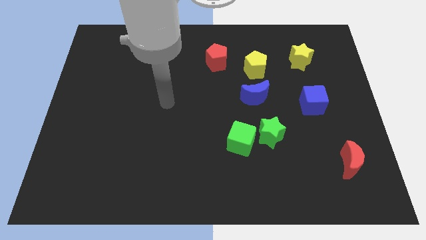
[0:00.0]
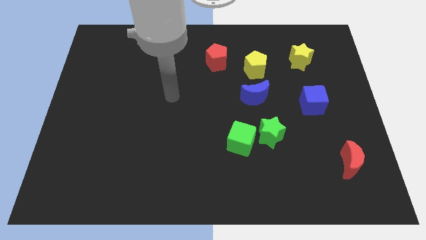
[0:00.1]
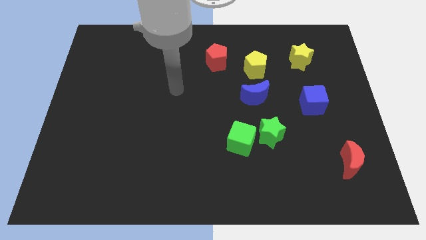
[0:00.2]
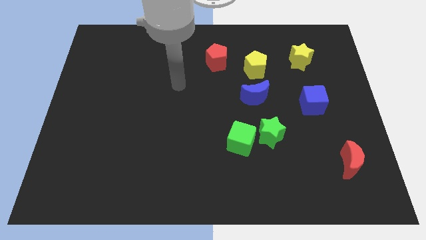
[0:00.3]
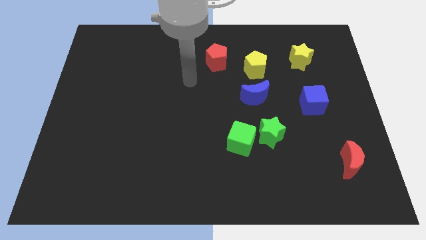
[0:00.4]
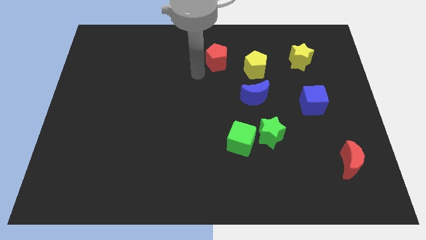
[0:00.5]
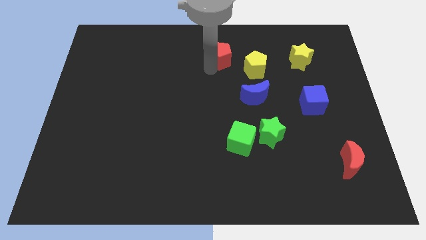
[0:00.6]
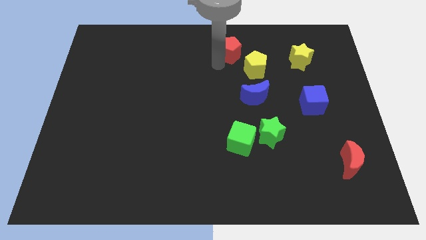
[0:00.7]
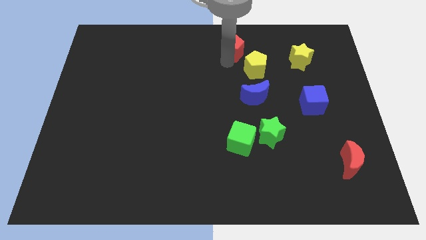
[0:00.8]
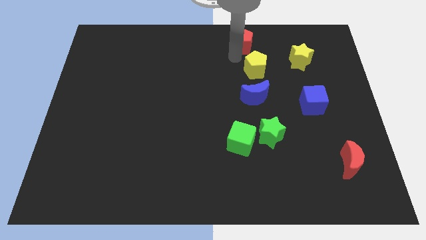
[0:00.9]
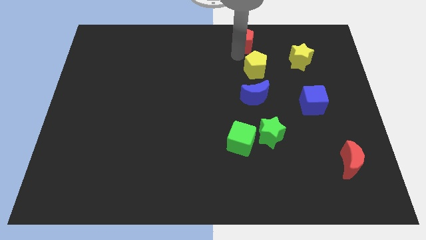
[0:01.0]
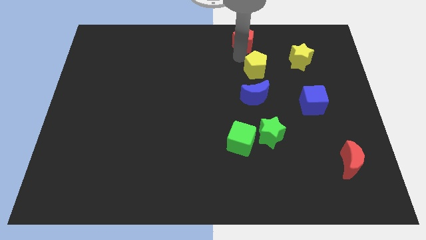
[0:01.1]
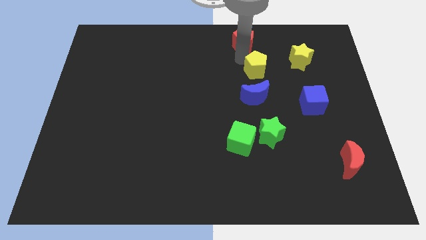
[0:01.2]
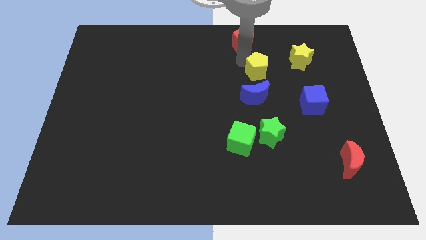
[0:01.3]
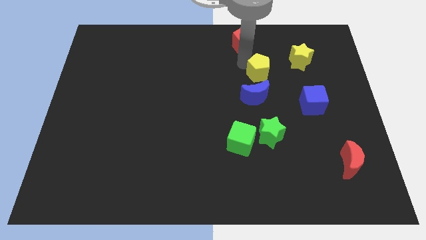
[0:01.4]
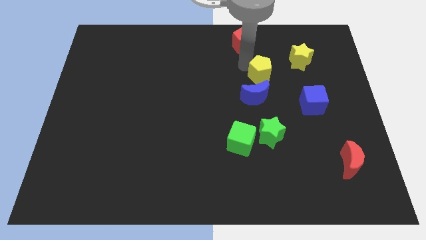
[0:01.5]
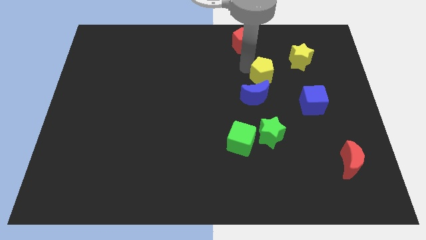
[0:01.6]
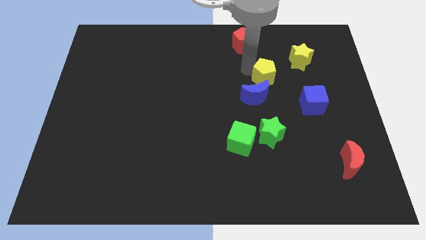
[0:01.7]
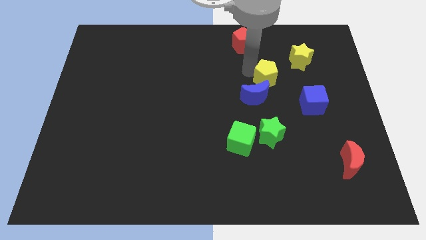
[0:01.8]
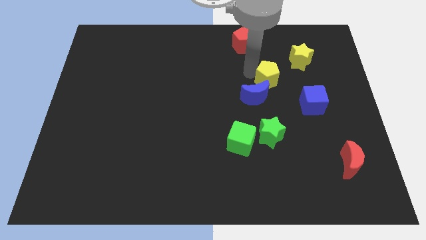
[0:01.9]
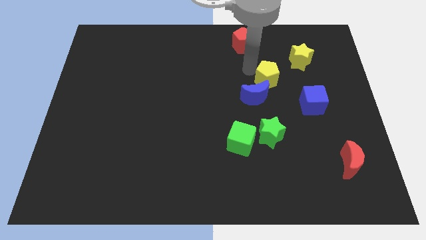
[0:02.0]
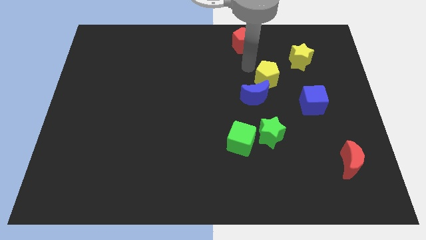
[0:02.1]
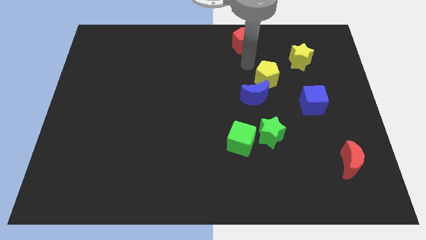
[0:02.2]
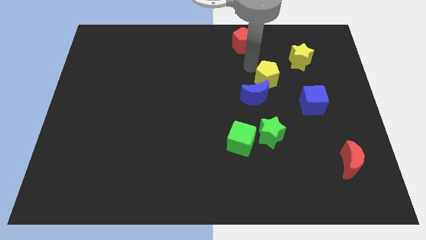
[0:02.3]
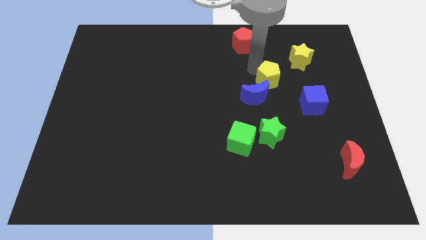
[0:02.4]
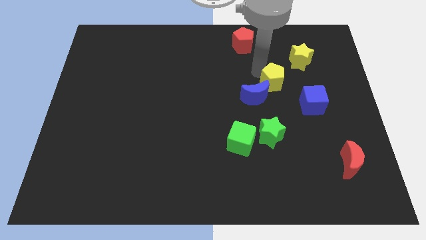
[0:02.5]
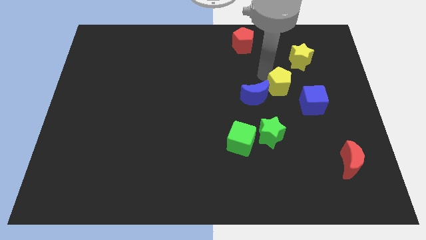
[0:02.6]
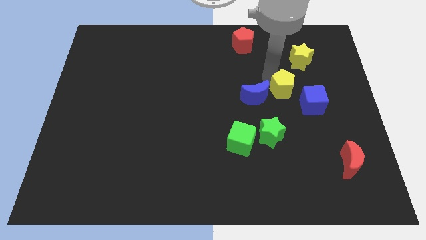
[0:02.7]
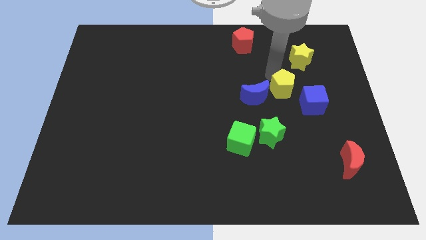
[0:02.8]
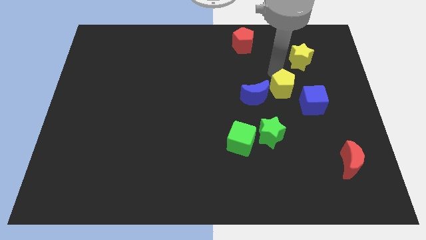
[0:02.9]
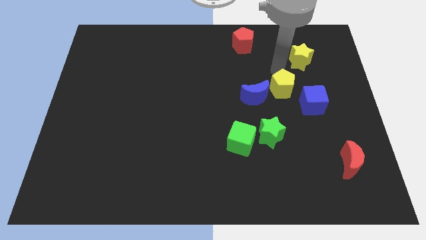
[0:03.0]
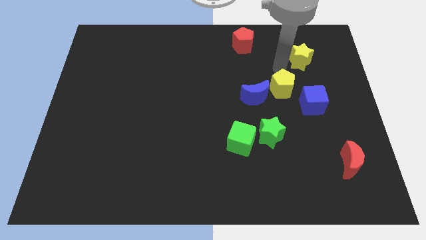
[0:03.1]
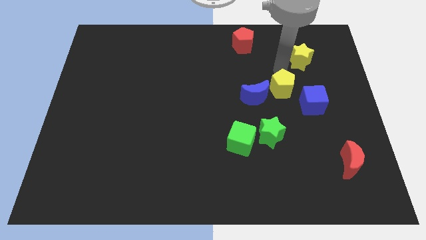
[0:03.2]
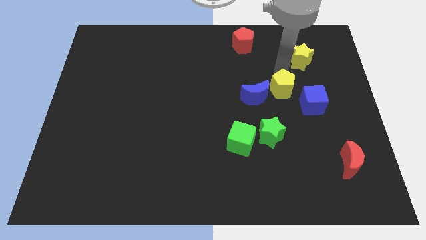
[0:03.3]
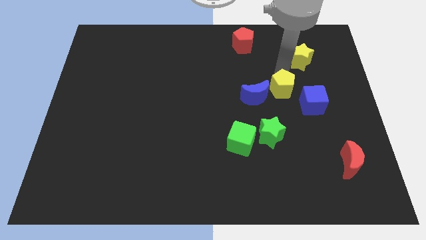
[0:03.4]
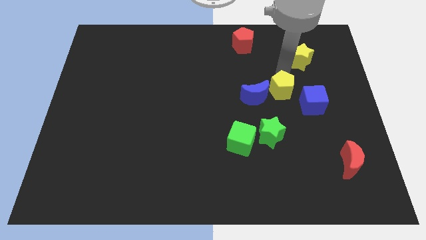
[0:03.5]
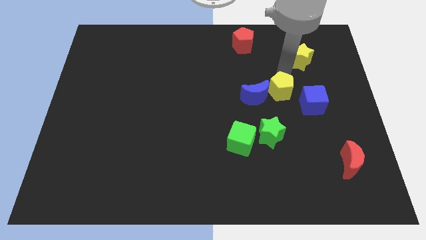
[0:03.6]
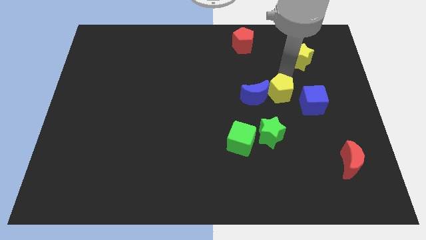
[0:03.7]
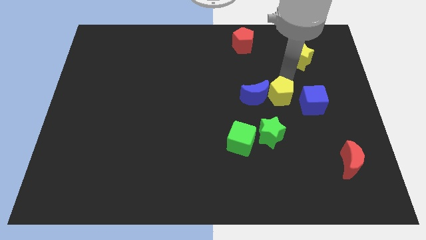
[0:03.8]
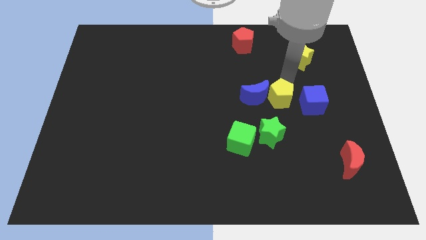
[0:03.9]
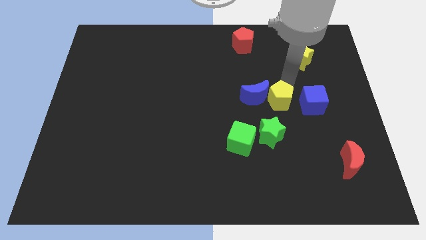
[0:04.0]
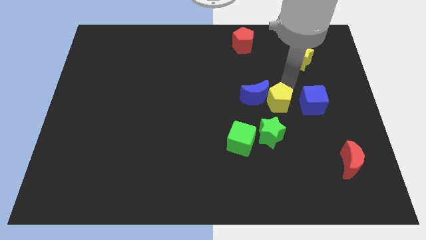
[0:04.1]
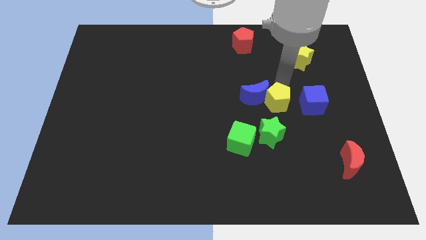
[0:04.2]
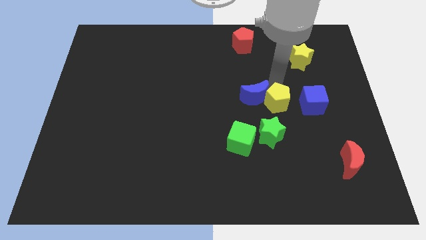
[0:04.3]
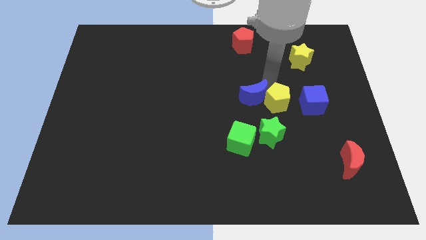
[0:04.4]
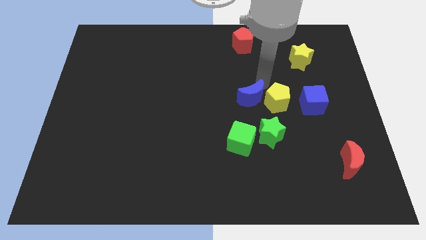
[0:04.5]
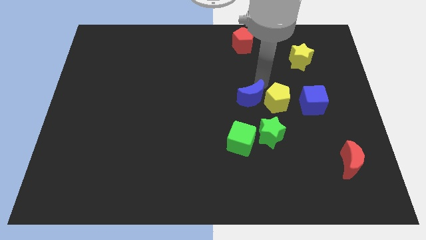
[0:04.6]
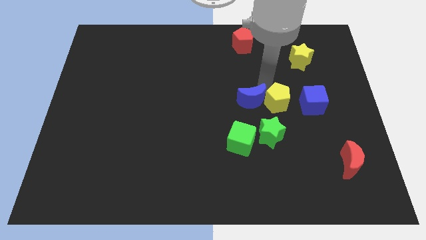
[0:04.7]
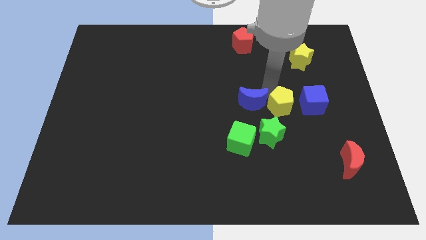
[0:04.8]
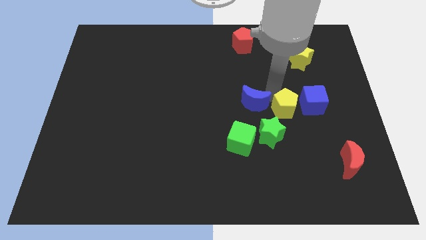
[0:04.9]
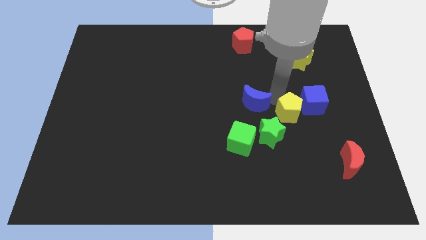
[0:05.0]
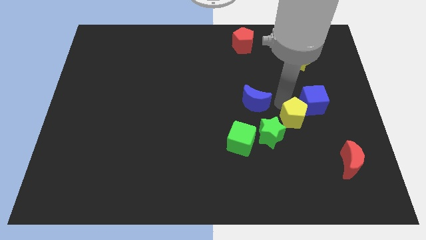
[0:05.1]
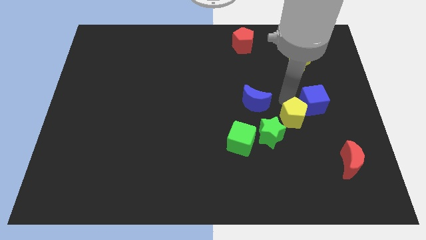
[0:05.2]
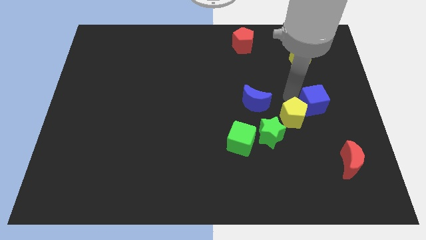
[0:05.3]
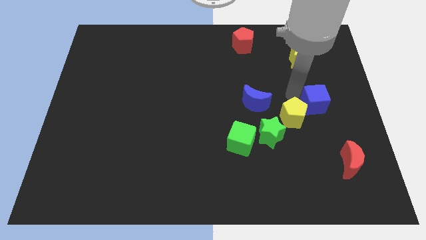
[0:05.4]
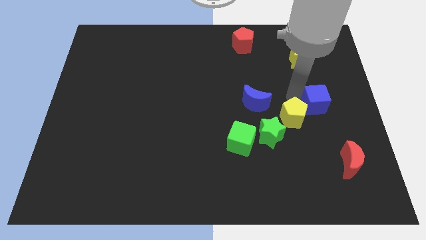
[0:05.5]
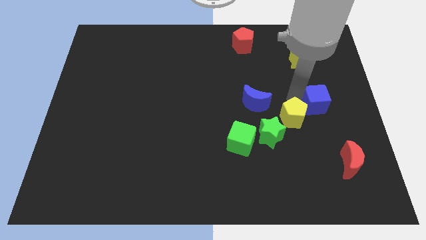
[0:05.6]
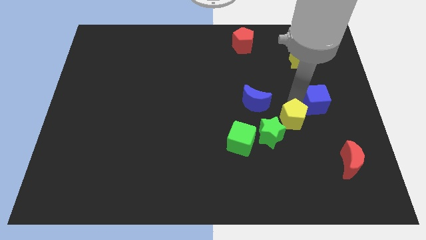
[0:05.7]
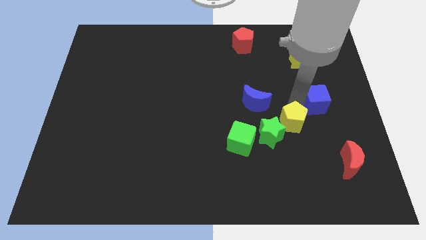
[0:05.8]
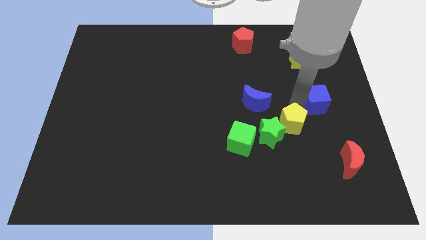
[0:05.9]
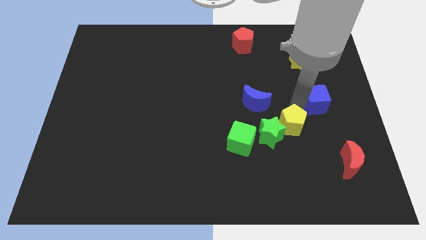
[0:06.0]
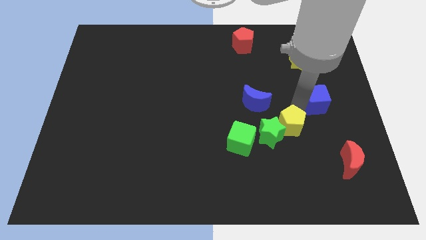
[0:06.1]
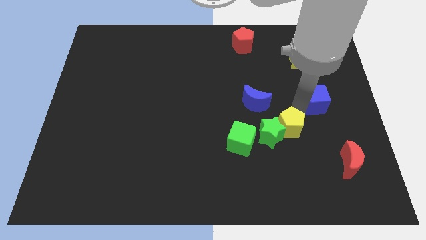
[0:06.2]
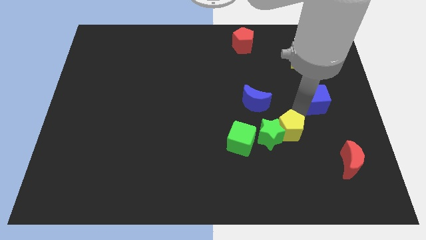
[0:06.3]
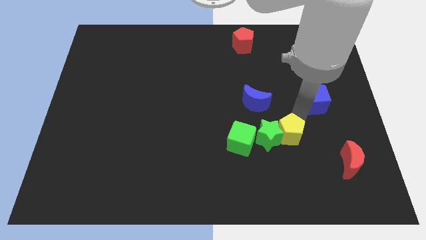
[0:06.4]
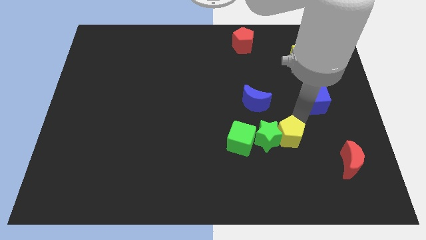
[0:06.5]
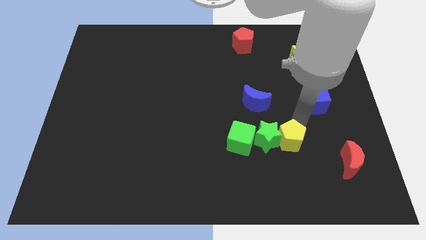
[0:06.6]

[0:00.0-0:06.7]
move the yellow pentagon downwards

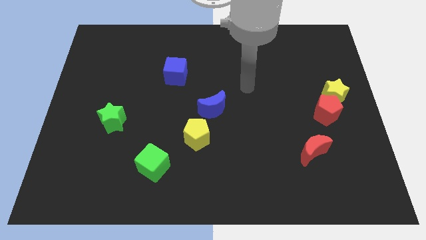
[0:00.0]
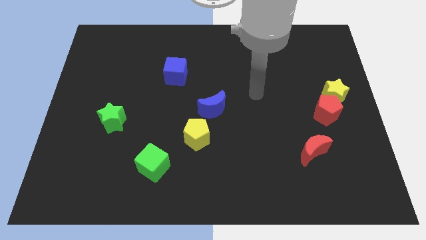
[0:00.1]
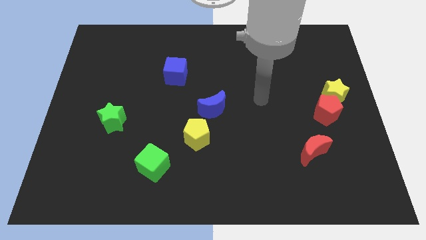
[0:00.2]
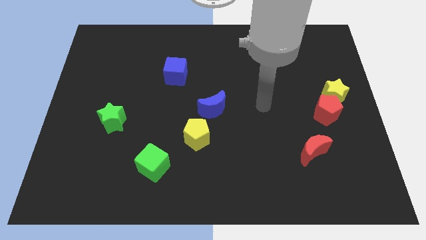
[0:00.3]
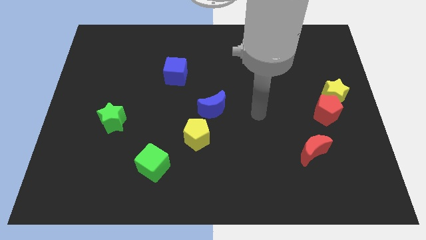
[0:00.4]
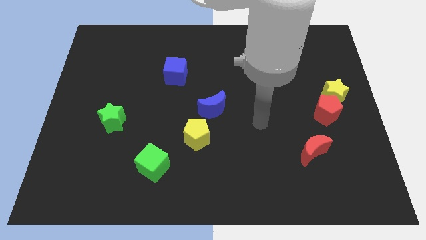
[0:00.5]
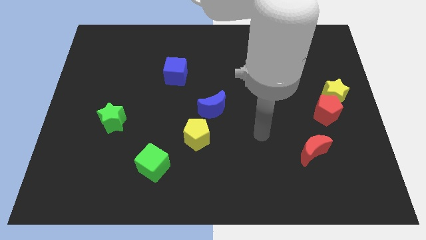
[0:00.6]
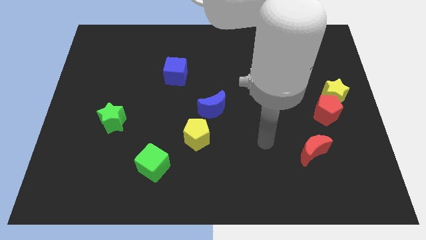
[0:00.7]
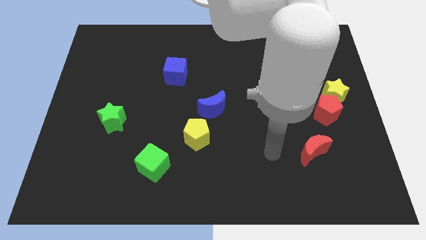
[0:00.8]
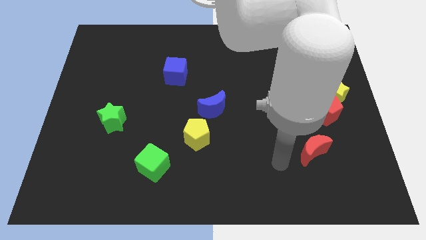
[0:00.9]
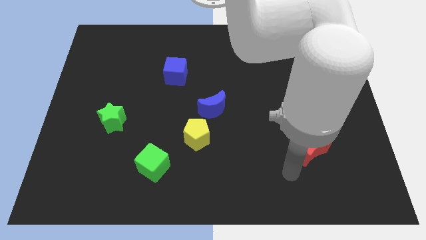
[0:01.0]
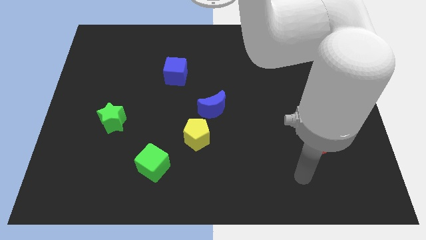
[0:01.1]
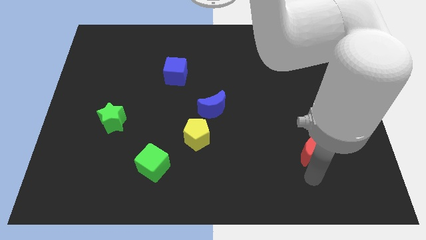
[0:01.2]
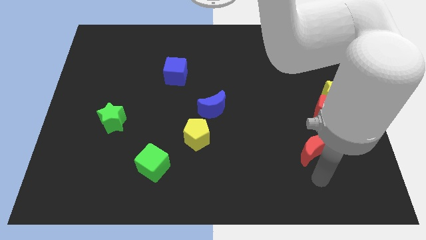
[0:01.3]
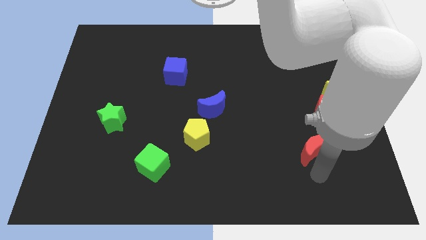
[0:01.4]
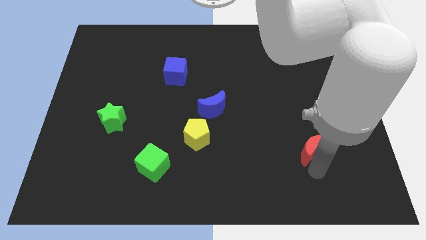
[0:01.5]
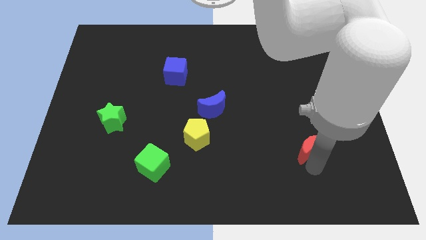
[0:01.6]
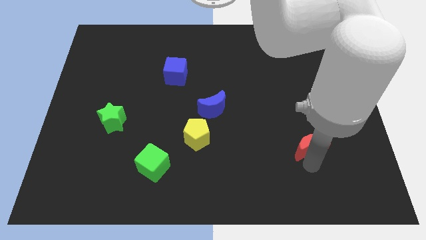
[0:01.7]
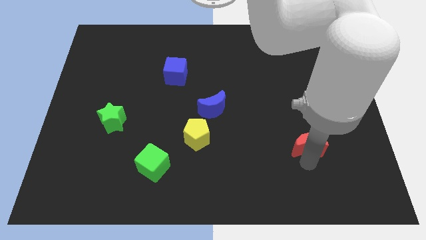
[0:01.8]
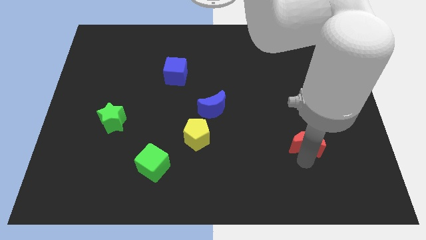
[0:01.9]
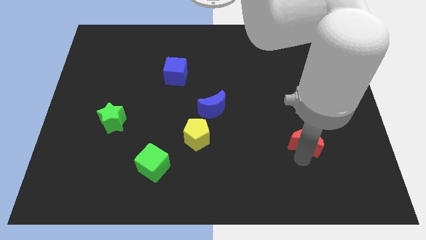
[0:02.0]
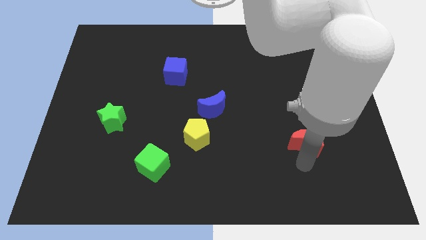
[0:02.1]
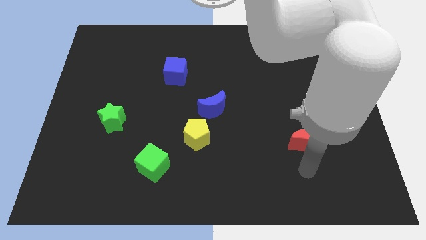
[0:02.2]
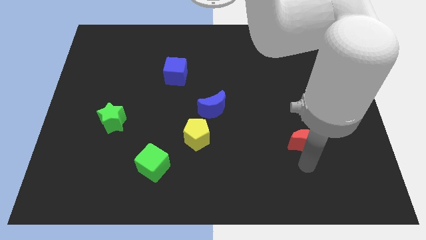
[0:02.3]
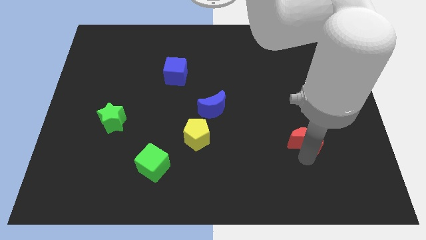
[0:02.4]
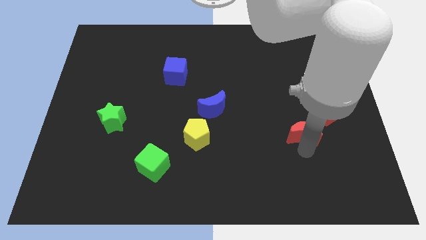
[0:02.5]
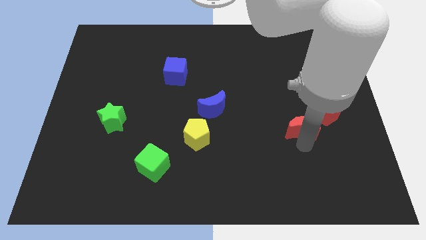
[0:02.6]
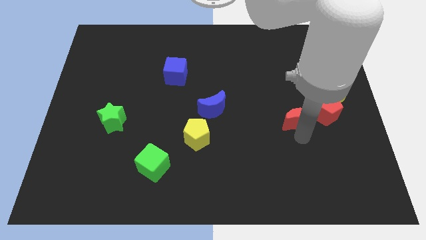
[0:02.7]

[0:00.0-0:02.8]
move the red moon slightly upwards
